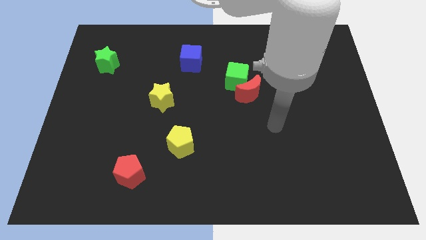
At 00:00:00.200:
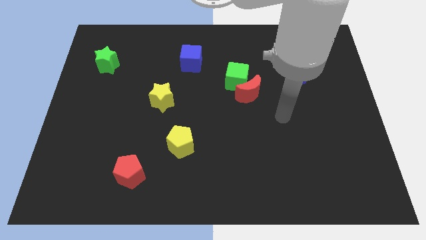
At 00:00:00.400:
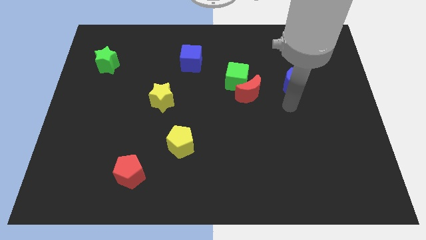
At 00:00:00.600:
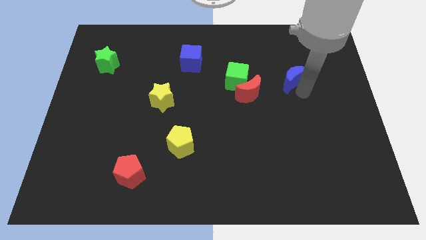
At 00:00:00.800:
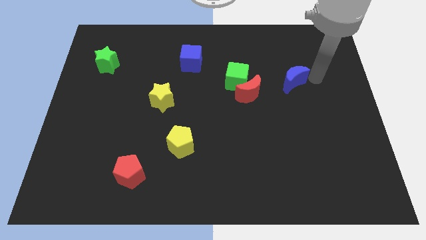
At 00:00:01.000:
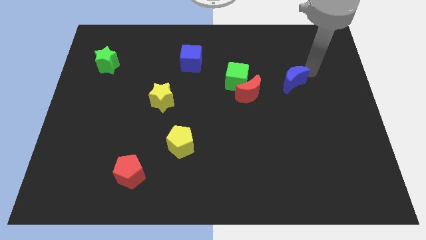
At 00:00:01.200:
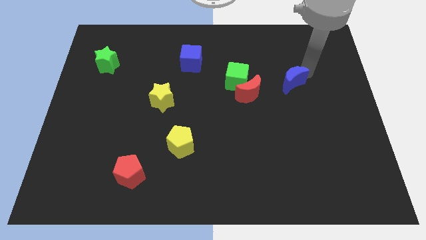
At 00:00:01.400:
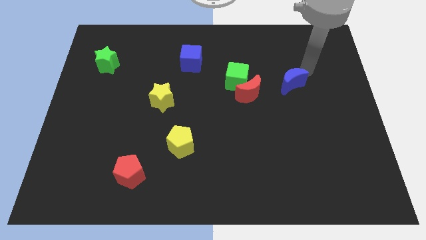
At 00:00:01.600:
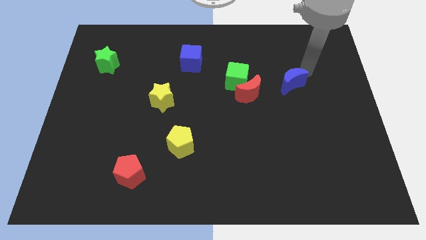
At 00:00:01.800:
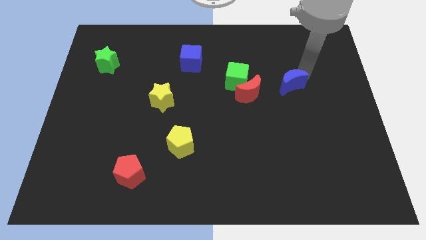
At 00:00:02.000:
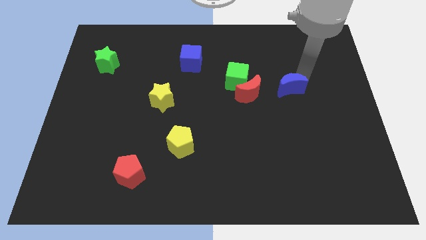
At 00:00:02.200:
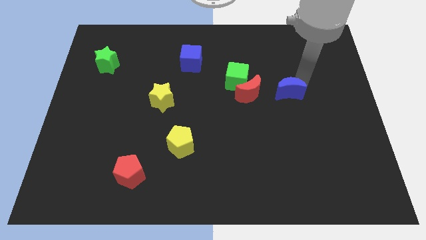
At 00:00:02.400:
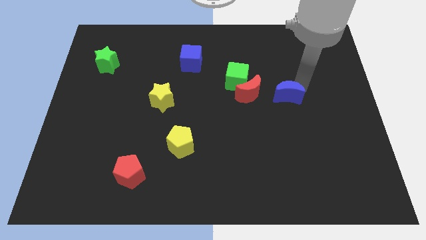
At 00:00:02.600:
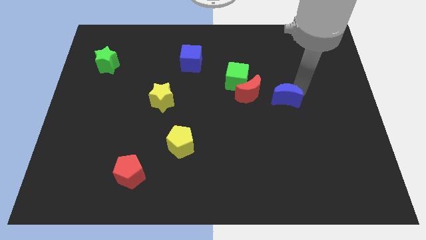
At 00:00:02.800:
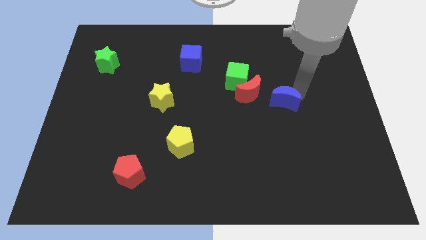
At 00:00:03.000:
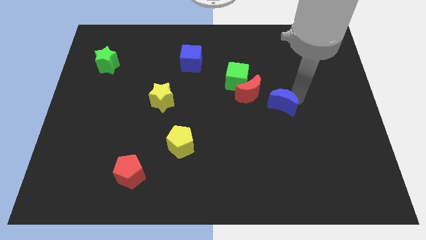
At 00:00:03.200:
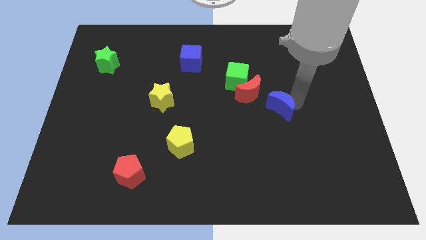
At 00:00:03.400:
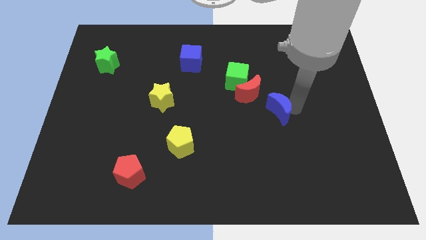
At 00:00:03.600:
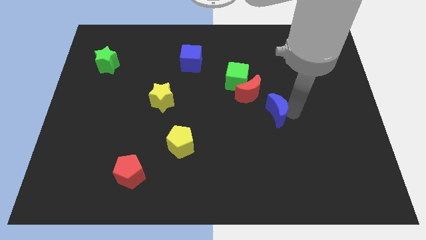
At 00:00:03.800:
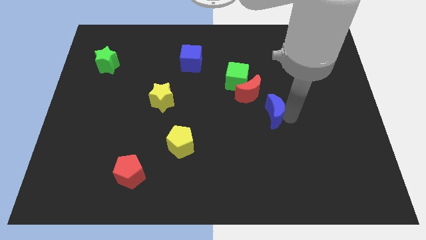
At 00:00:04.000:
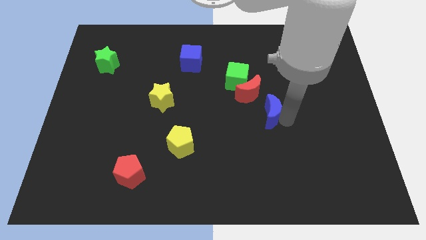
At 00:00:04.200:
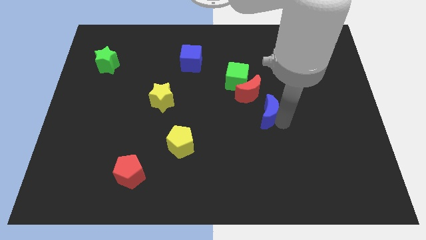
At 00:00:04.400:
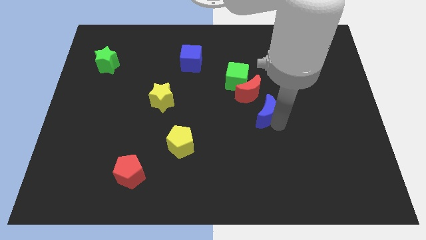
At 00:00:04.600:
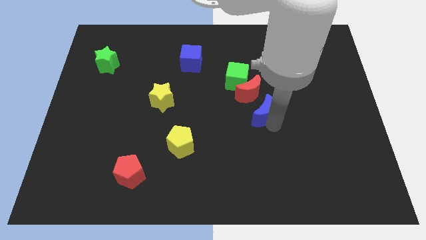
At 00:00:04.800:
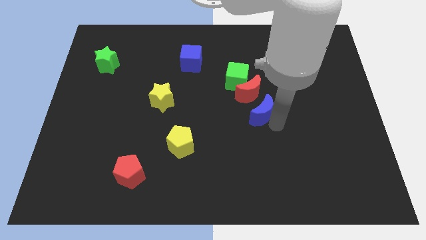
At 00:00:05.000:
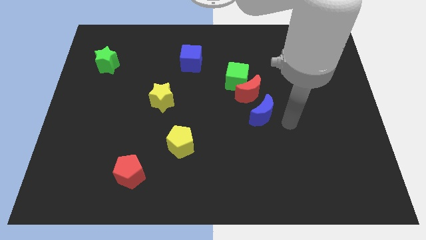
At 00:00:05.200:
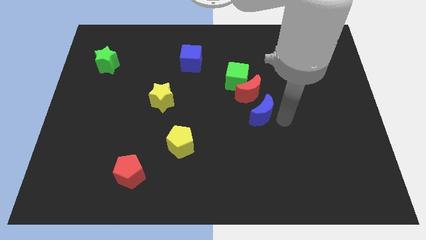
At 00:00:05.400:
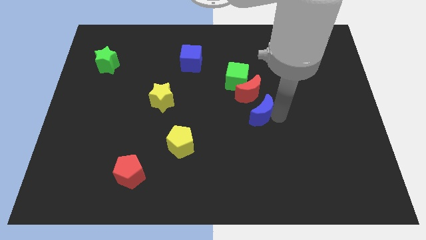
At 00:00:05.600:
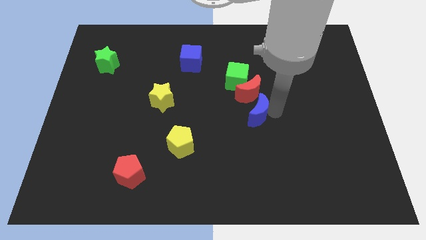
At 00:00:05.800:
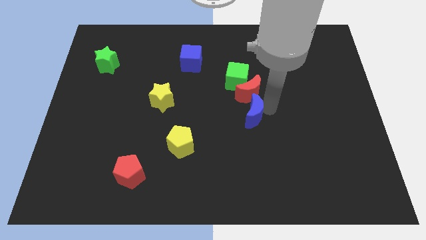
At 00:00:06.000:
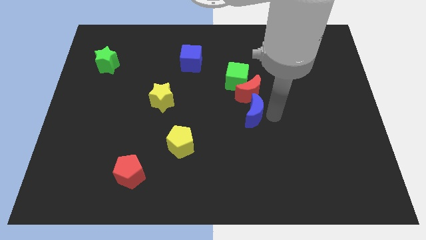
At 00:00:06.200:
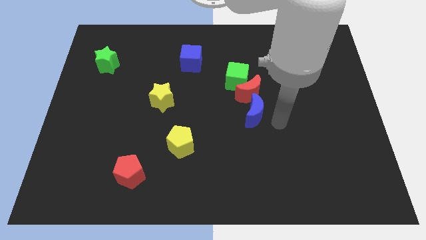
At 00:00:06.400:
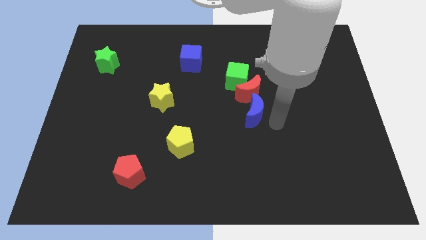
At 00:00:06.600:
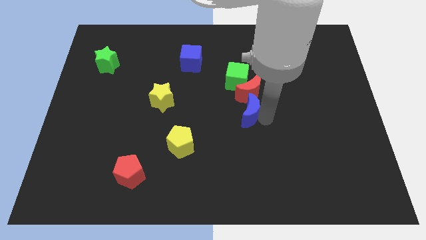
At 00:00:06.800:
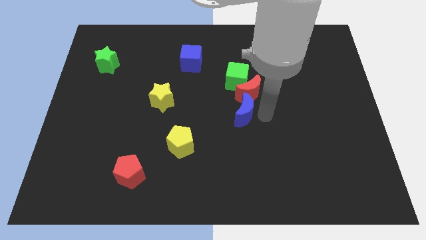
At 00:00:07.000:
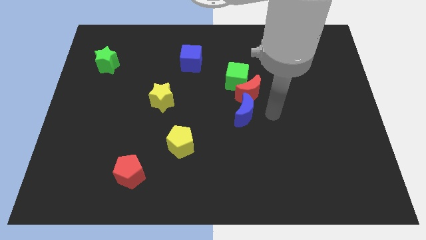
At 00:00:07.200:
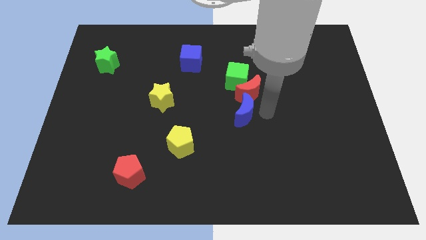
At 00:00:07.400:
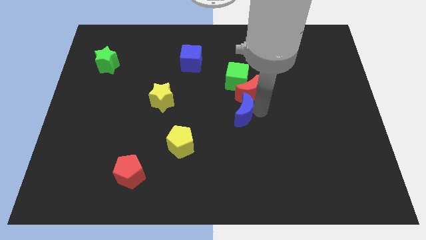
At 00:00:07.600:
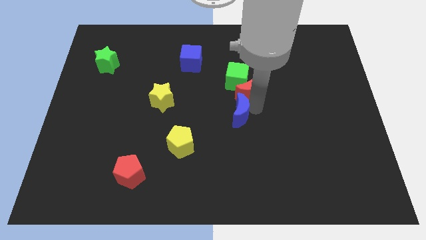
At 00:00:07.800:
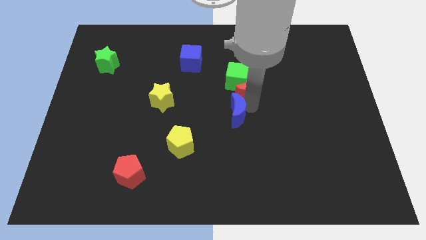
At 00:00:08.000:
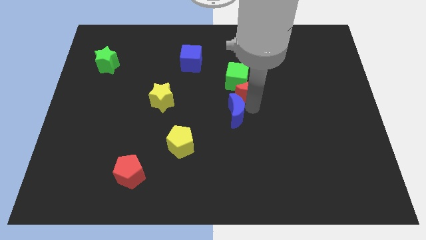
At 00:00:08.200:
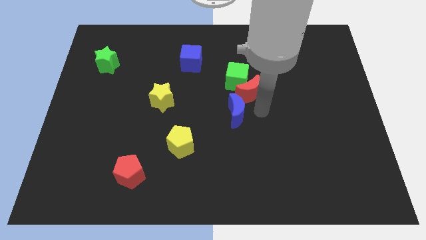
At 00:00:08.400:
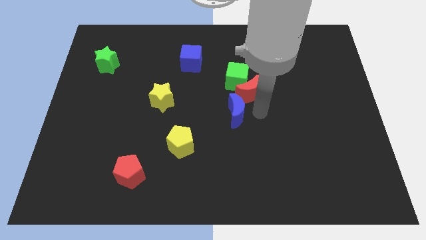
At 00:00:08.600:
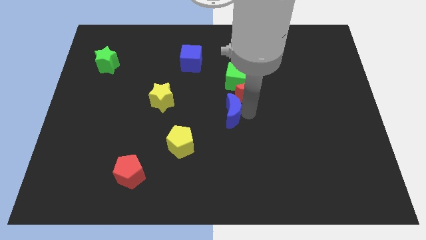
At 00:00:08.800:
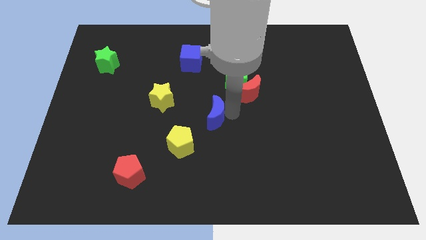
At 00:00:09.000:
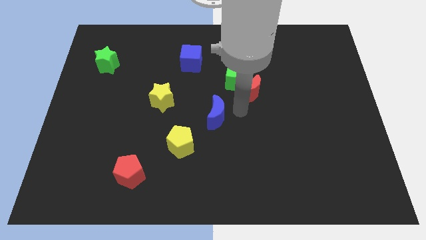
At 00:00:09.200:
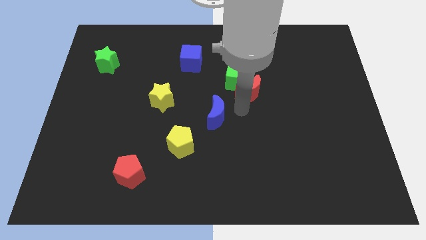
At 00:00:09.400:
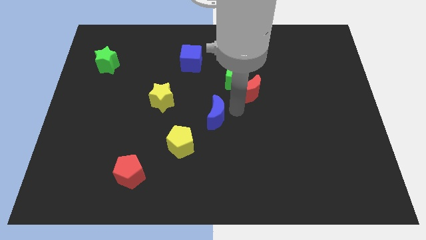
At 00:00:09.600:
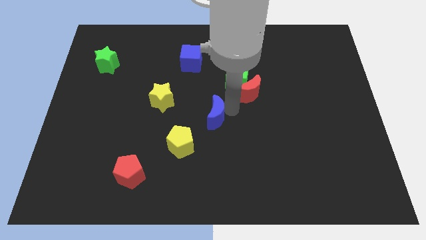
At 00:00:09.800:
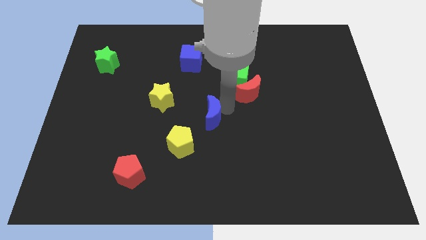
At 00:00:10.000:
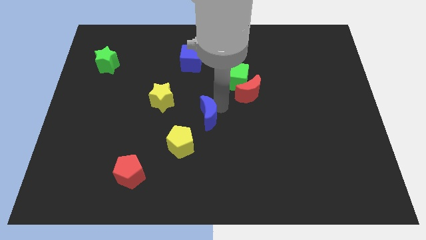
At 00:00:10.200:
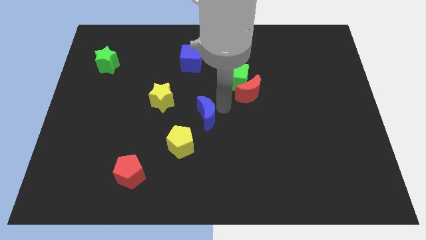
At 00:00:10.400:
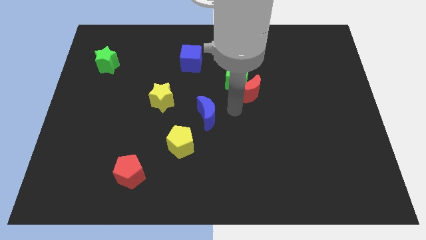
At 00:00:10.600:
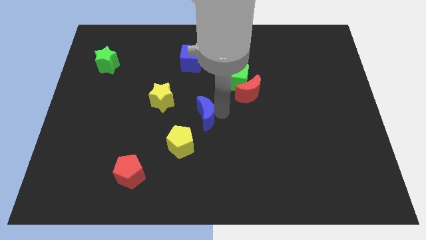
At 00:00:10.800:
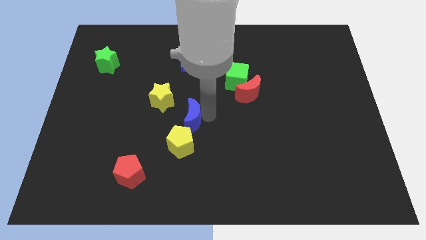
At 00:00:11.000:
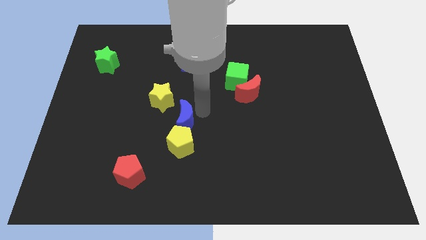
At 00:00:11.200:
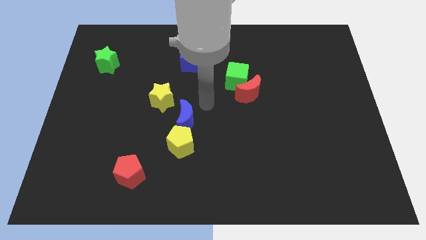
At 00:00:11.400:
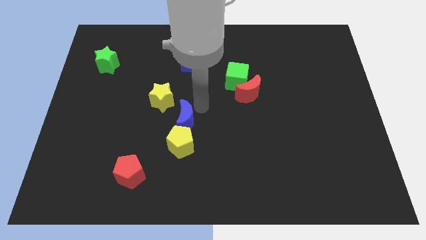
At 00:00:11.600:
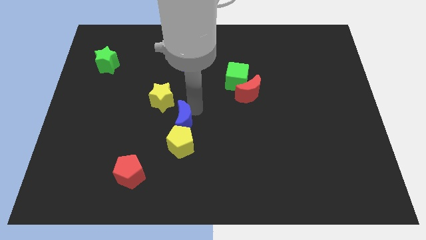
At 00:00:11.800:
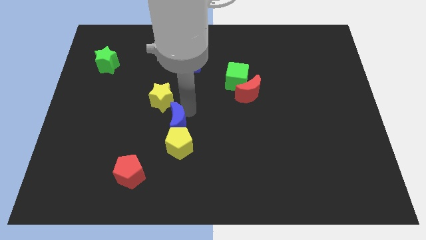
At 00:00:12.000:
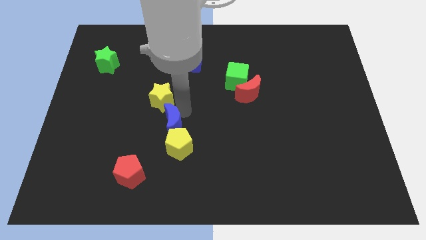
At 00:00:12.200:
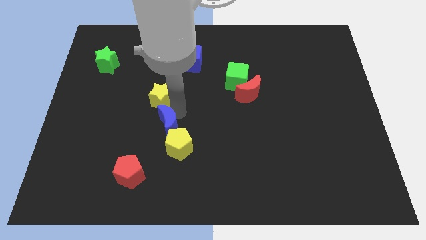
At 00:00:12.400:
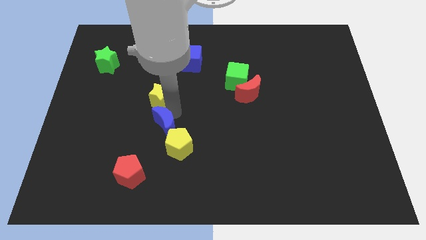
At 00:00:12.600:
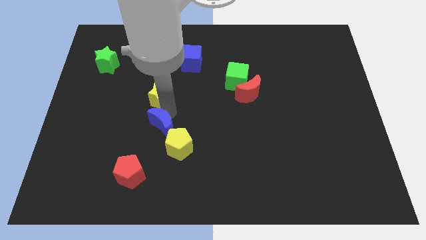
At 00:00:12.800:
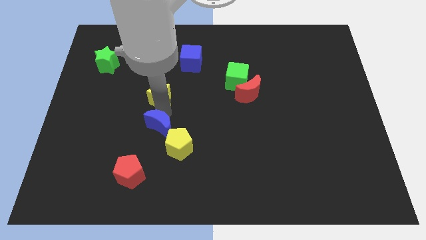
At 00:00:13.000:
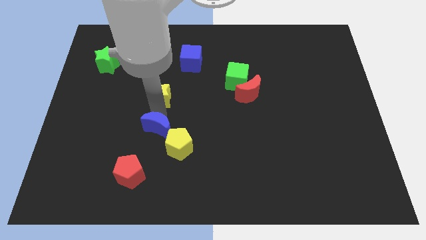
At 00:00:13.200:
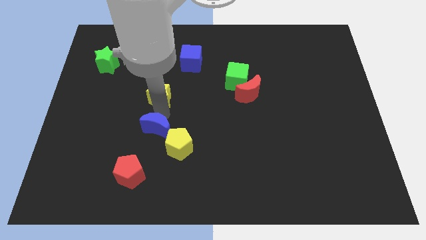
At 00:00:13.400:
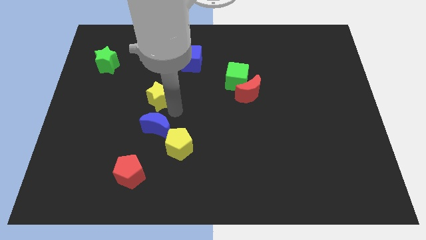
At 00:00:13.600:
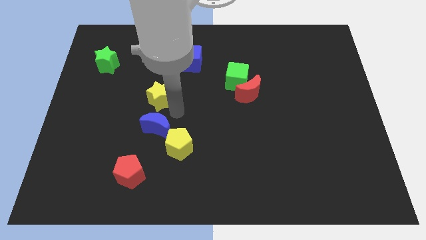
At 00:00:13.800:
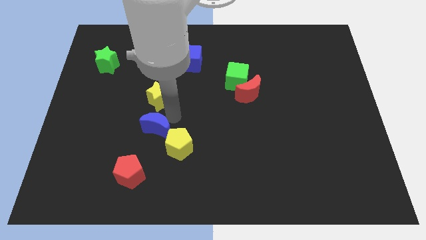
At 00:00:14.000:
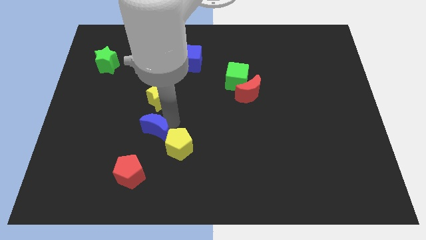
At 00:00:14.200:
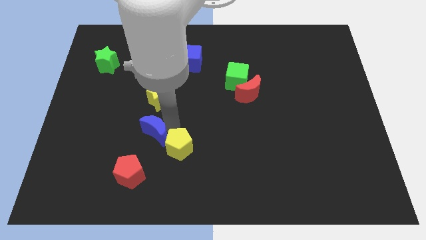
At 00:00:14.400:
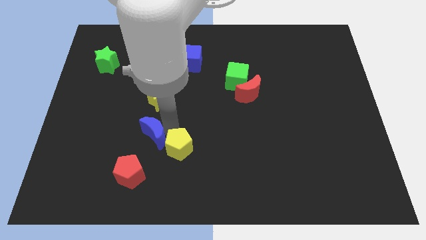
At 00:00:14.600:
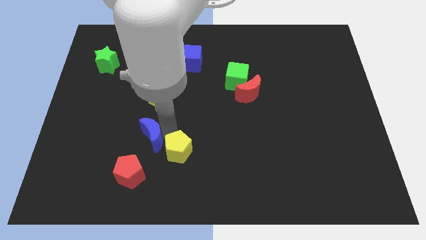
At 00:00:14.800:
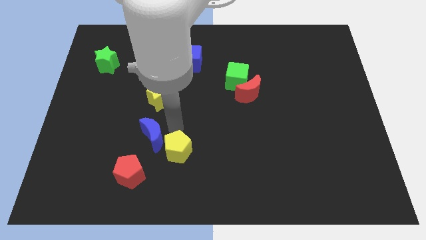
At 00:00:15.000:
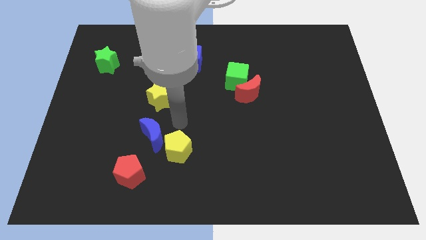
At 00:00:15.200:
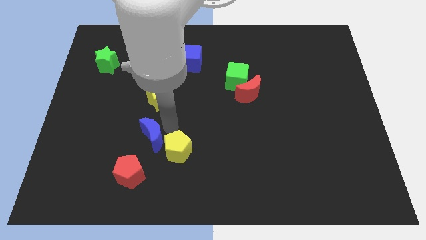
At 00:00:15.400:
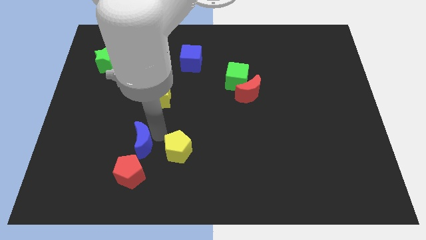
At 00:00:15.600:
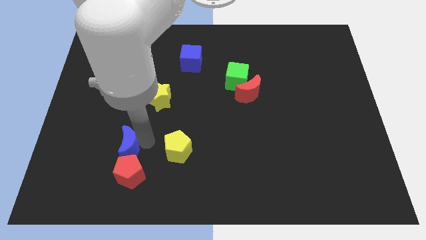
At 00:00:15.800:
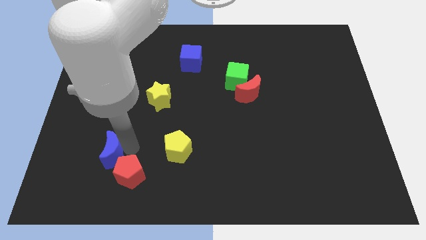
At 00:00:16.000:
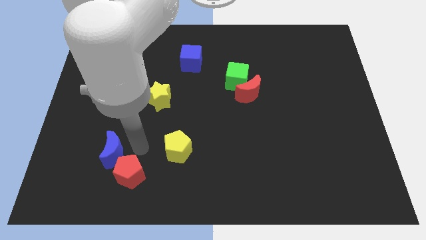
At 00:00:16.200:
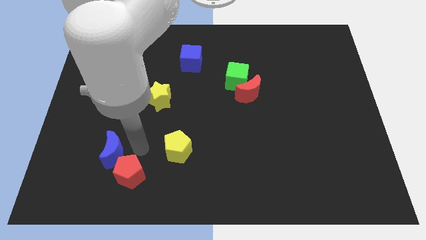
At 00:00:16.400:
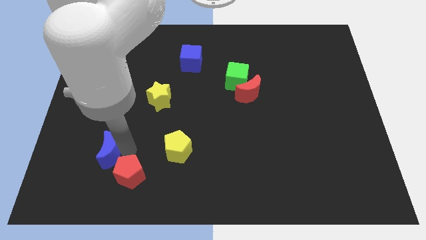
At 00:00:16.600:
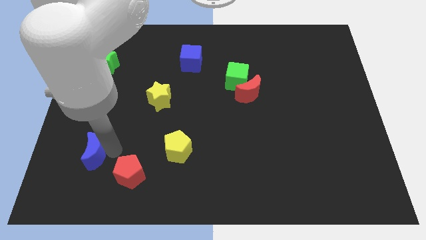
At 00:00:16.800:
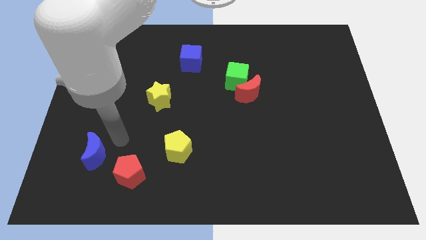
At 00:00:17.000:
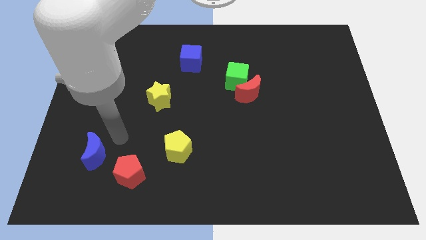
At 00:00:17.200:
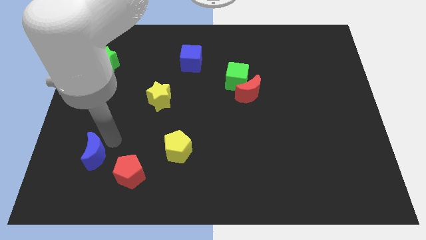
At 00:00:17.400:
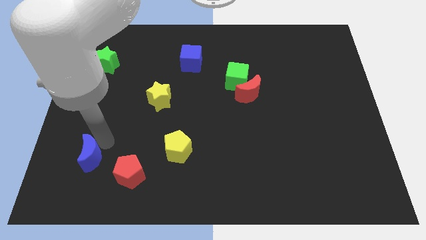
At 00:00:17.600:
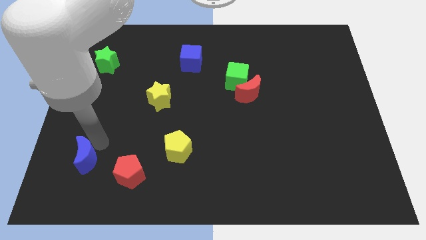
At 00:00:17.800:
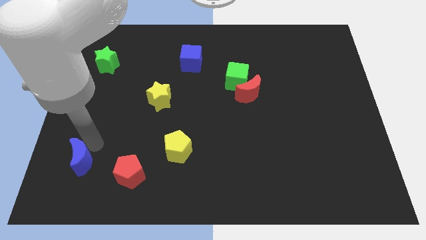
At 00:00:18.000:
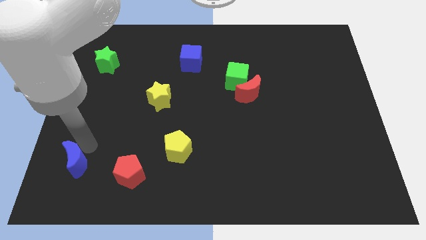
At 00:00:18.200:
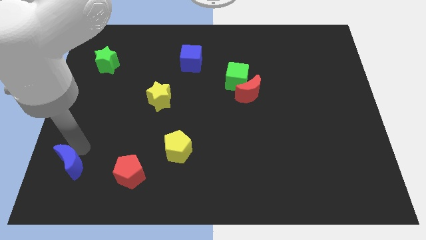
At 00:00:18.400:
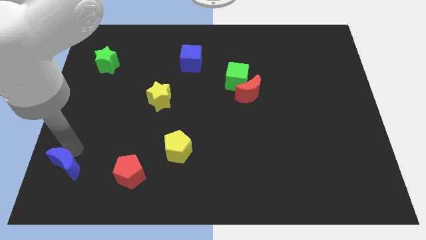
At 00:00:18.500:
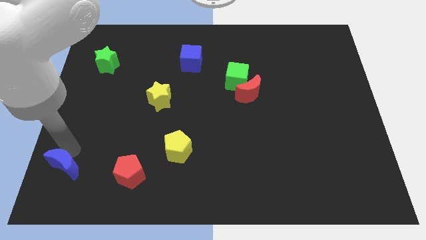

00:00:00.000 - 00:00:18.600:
push the blue moon to the bottom left
